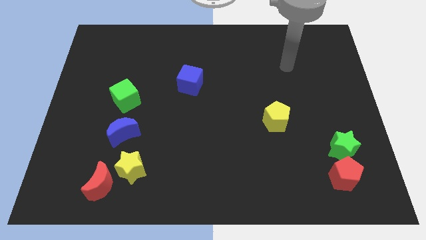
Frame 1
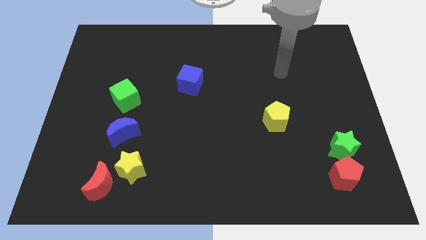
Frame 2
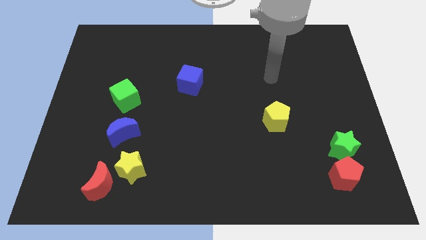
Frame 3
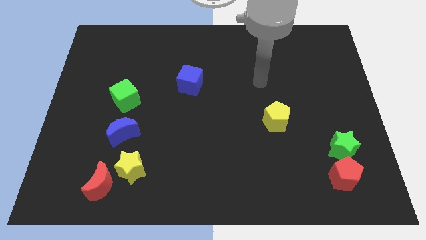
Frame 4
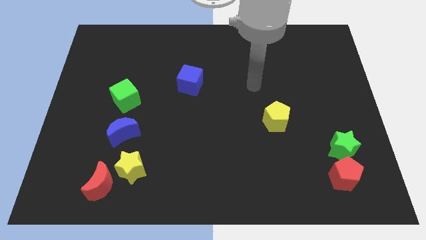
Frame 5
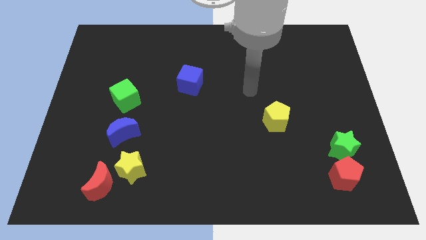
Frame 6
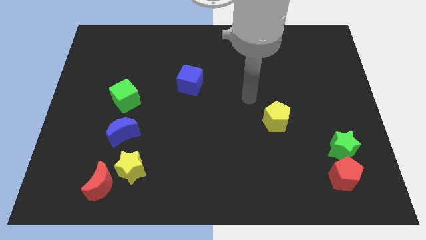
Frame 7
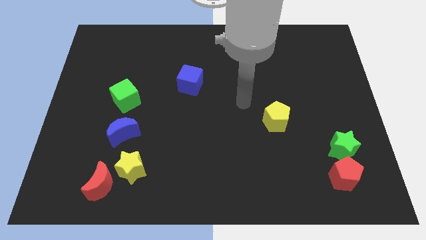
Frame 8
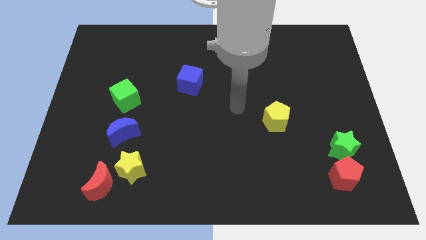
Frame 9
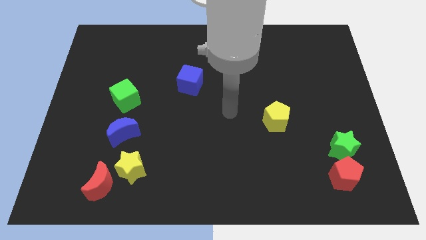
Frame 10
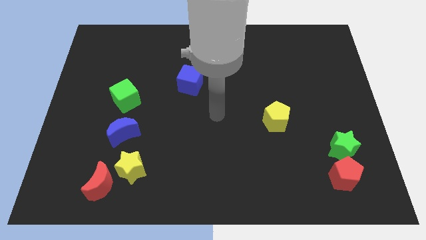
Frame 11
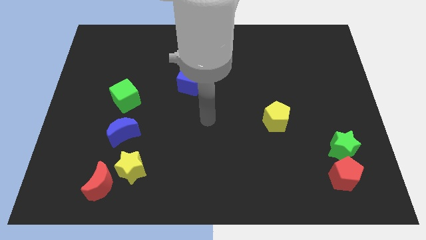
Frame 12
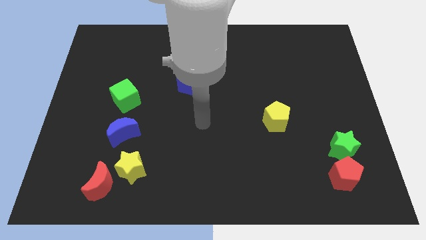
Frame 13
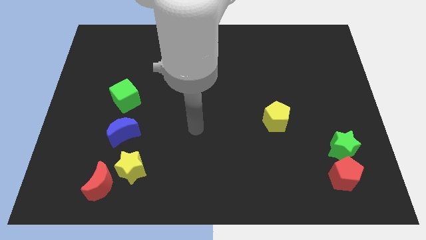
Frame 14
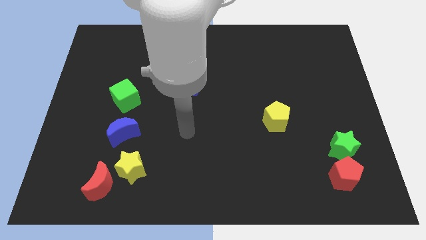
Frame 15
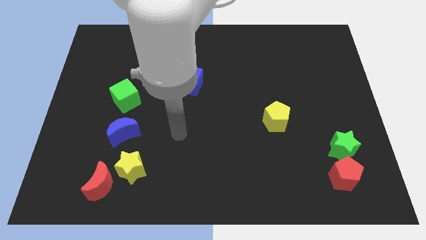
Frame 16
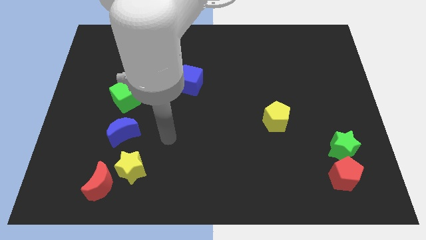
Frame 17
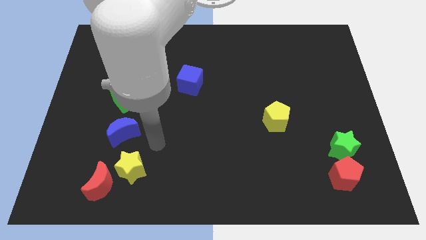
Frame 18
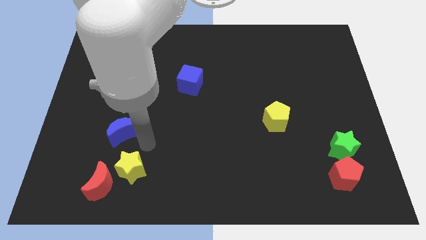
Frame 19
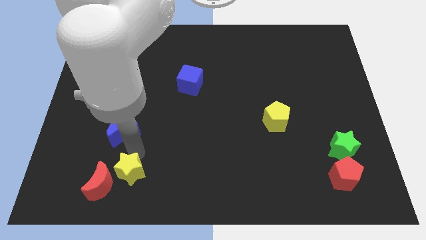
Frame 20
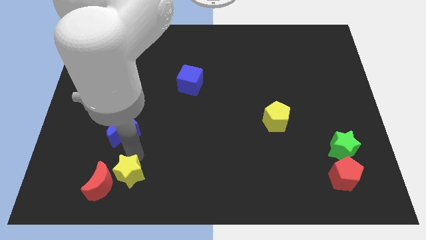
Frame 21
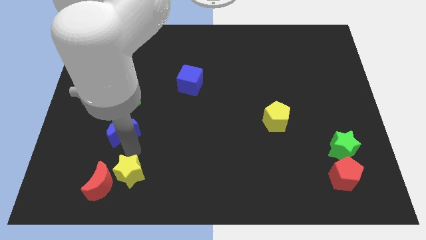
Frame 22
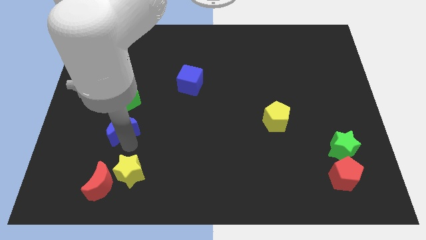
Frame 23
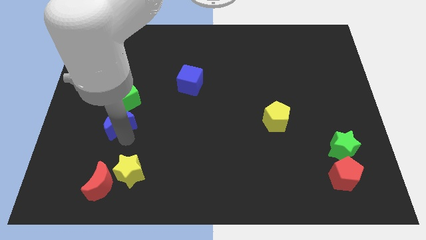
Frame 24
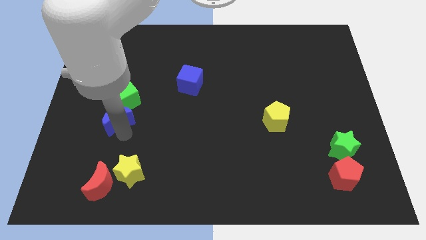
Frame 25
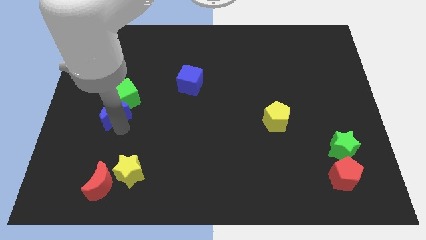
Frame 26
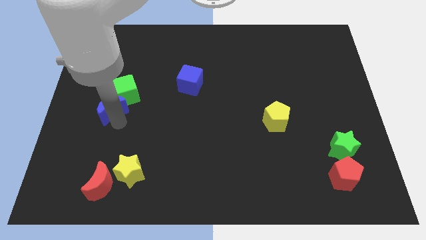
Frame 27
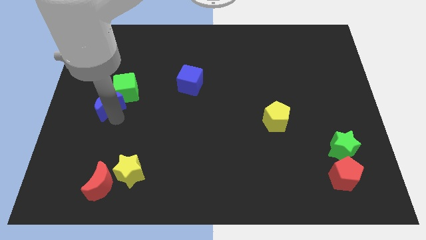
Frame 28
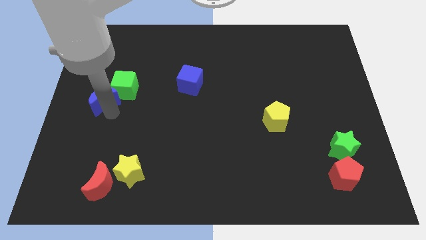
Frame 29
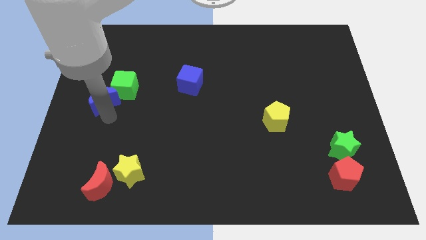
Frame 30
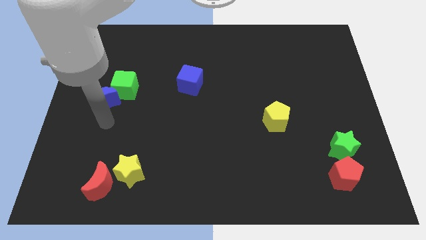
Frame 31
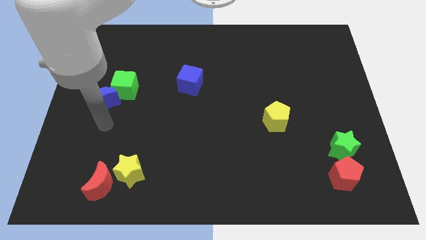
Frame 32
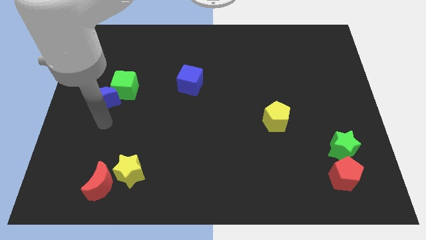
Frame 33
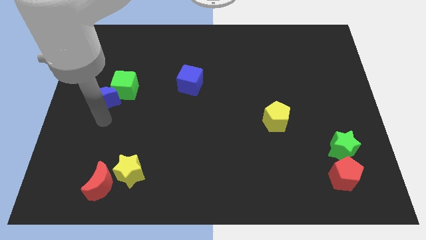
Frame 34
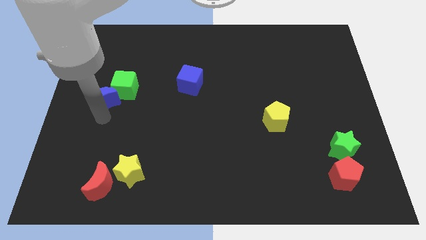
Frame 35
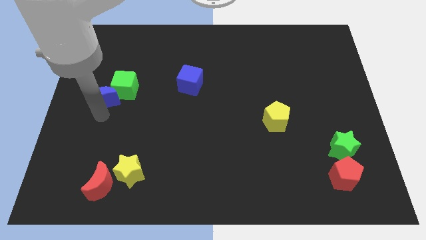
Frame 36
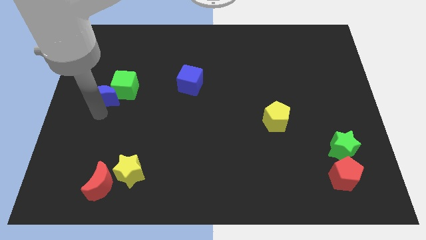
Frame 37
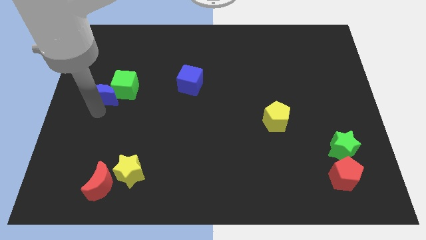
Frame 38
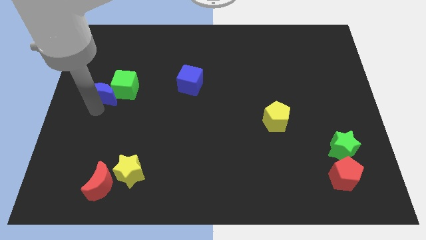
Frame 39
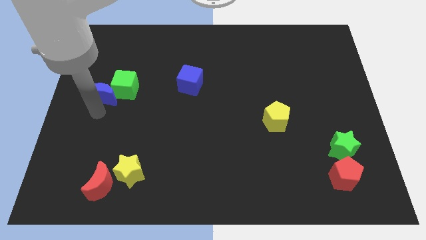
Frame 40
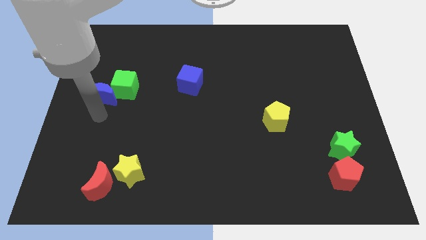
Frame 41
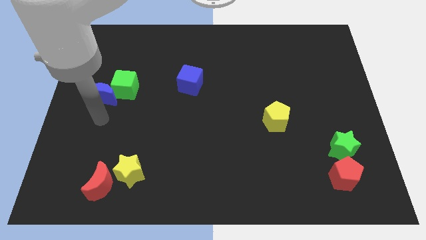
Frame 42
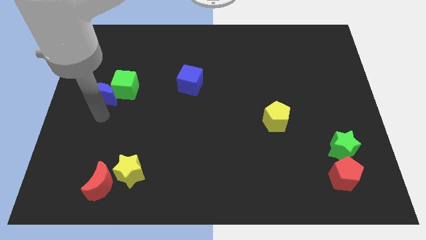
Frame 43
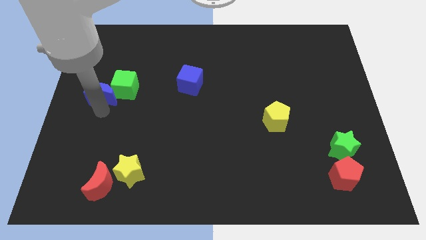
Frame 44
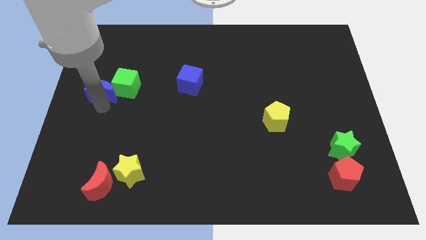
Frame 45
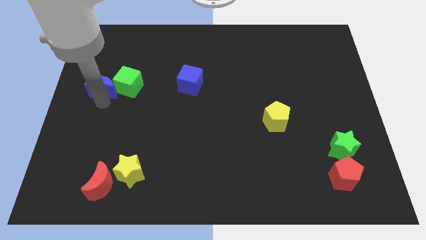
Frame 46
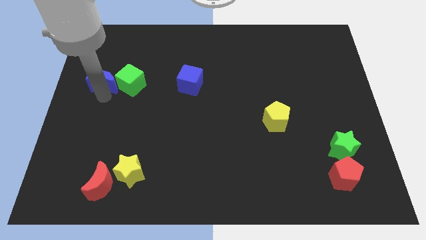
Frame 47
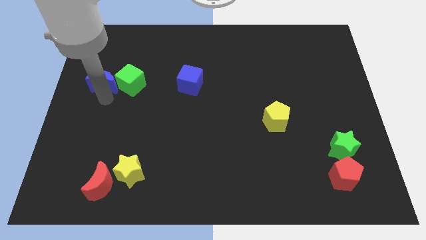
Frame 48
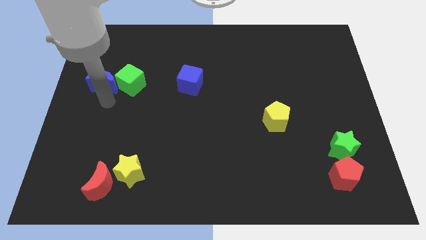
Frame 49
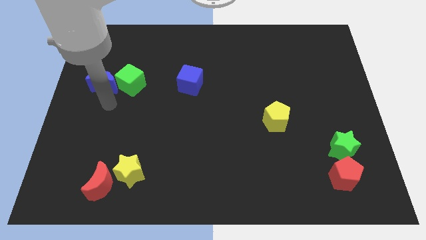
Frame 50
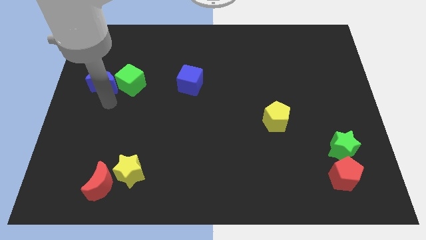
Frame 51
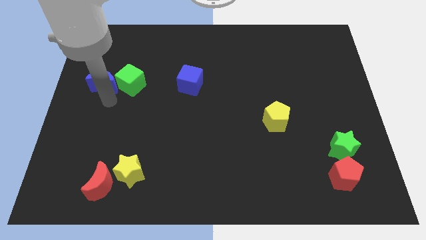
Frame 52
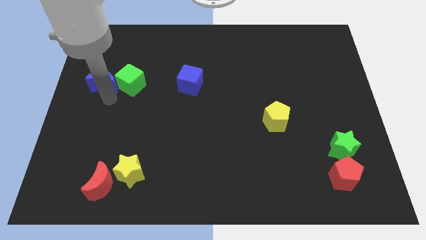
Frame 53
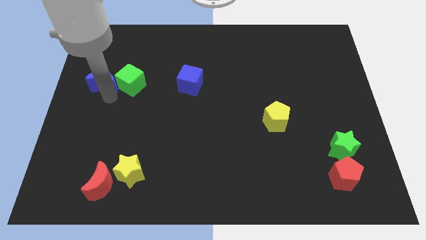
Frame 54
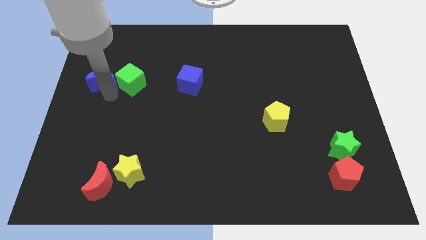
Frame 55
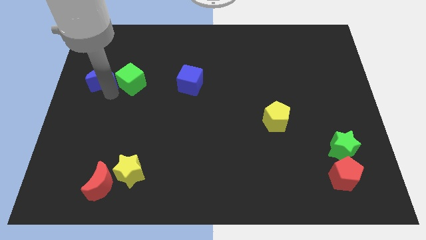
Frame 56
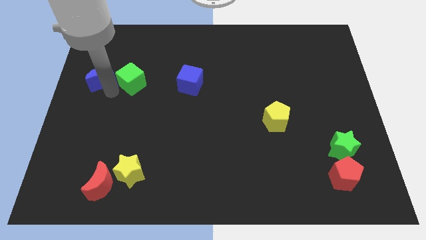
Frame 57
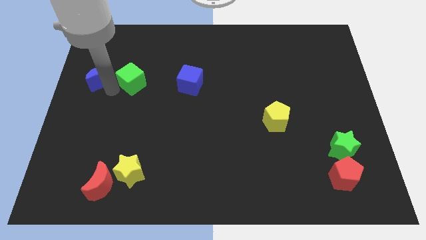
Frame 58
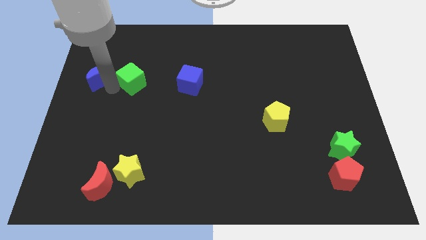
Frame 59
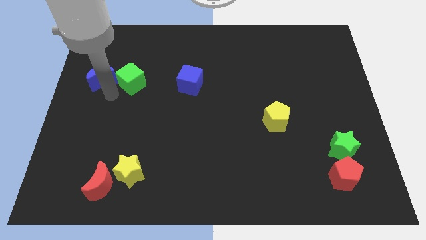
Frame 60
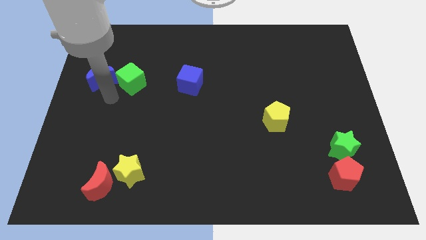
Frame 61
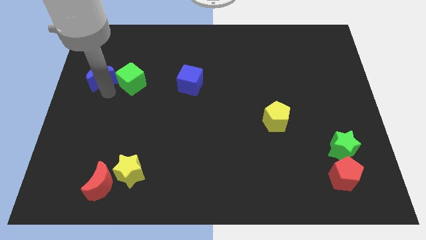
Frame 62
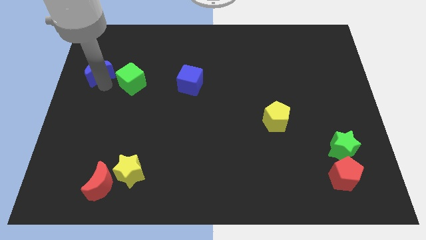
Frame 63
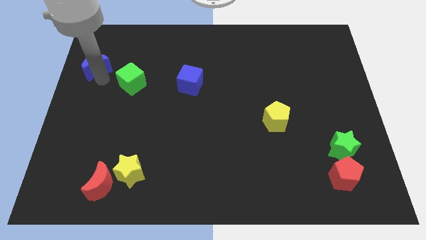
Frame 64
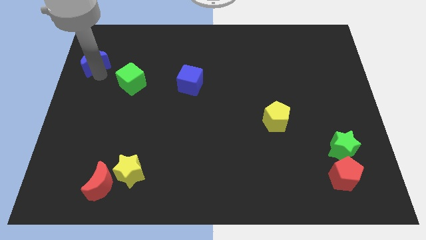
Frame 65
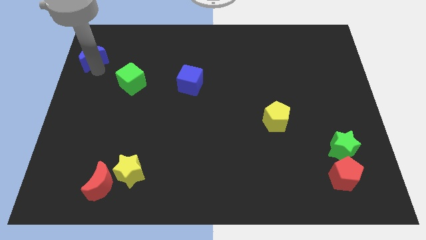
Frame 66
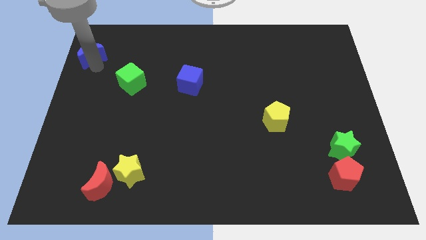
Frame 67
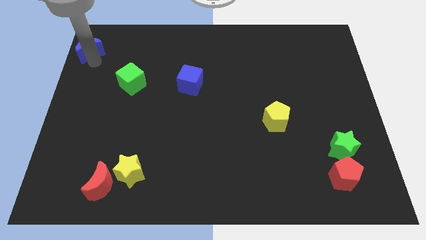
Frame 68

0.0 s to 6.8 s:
slide the blue moon to the top left corner
